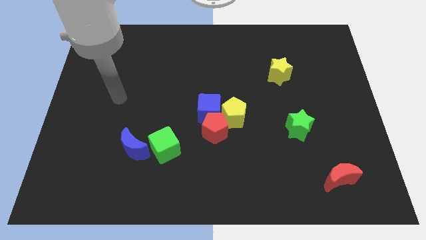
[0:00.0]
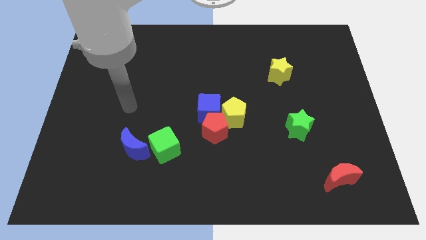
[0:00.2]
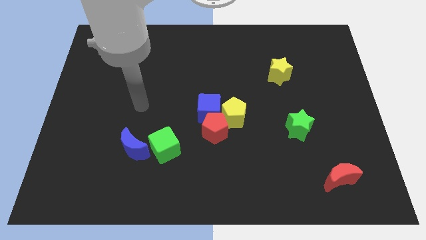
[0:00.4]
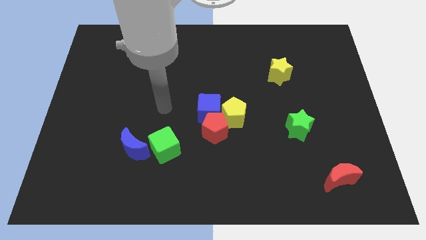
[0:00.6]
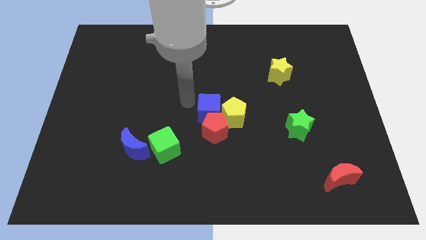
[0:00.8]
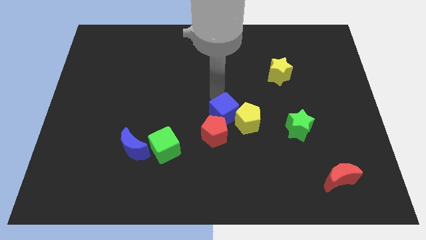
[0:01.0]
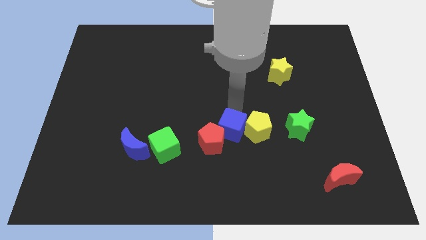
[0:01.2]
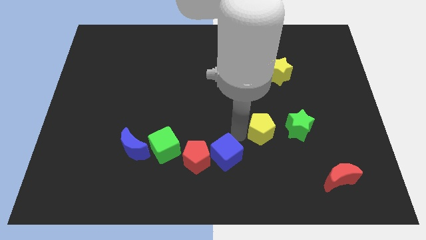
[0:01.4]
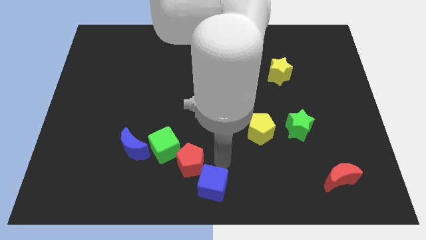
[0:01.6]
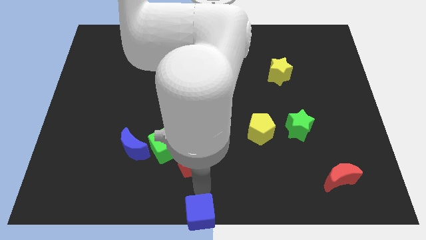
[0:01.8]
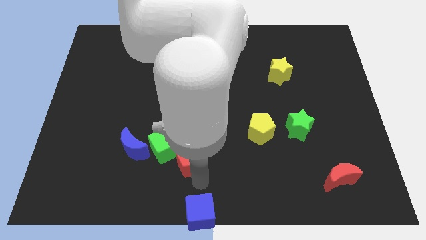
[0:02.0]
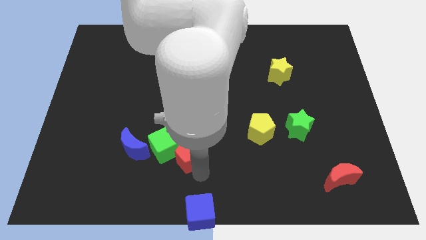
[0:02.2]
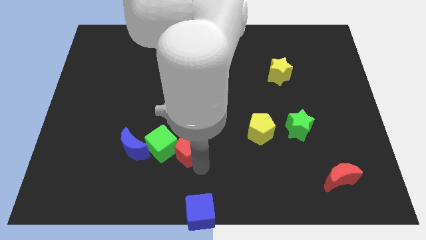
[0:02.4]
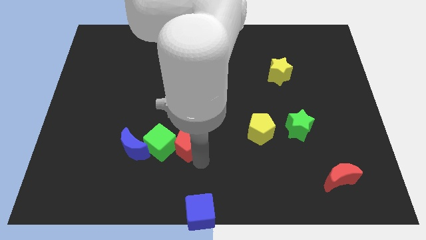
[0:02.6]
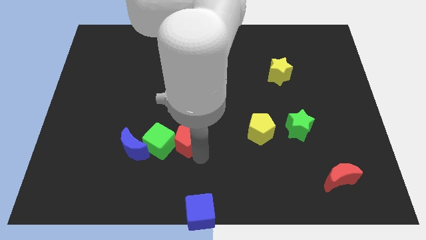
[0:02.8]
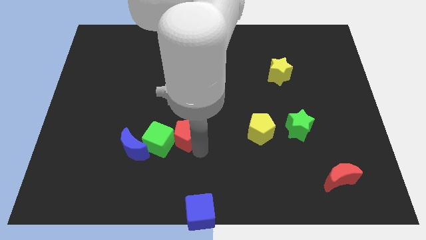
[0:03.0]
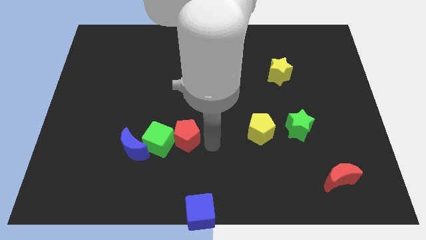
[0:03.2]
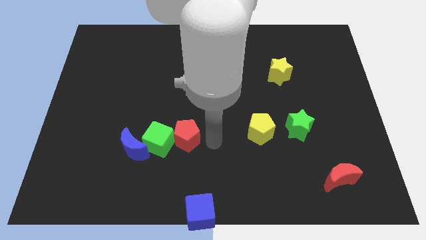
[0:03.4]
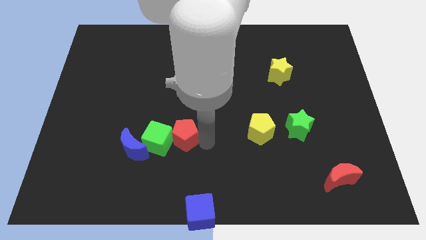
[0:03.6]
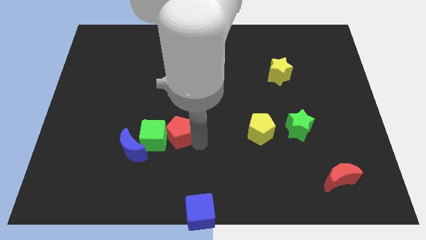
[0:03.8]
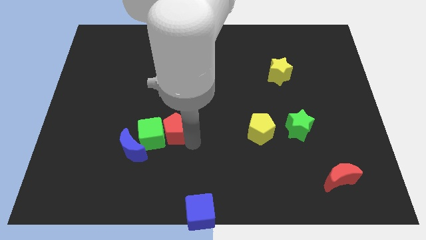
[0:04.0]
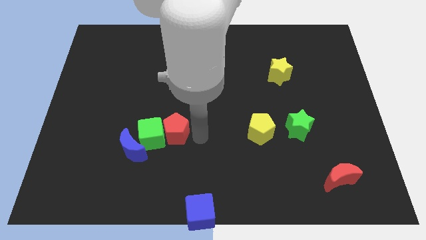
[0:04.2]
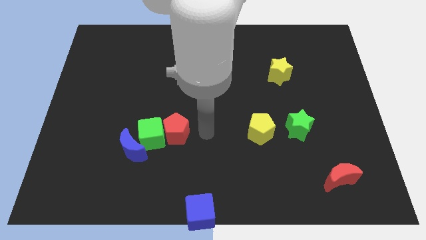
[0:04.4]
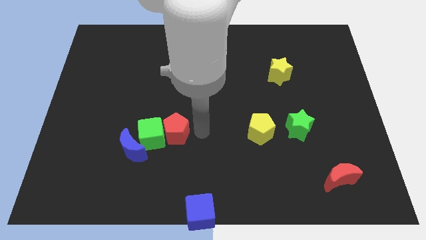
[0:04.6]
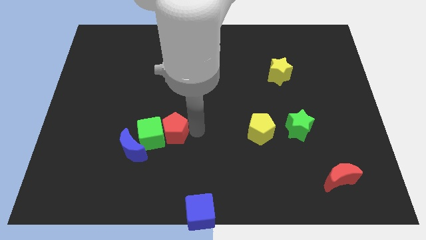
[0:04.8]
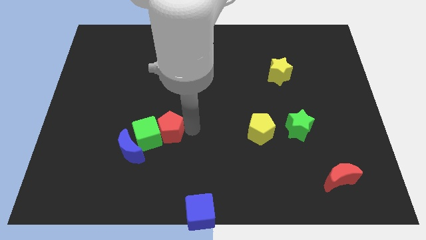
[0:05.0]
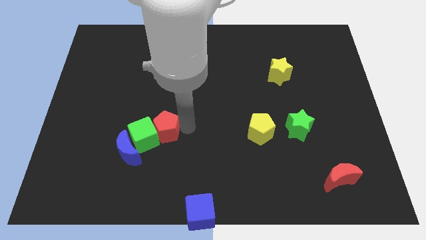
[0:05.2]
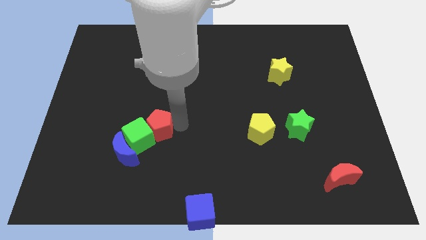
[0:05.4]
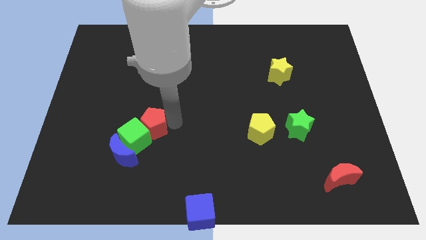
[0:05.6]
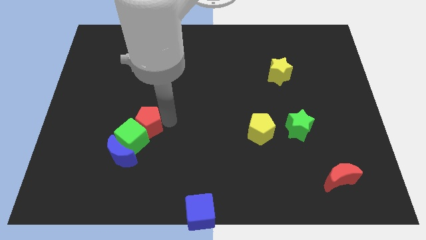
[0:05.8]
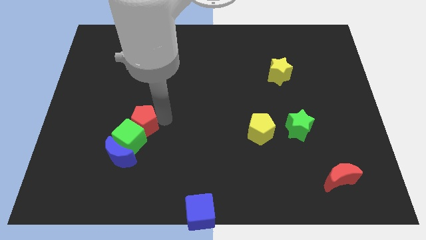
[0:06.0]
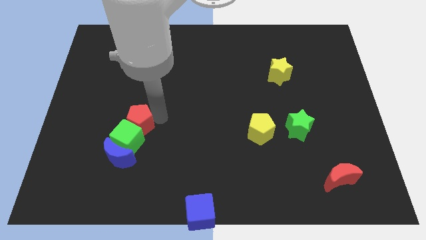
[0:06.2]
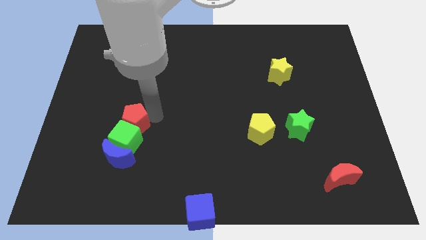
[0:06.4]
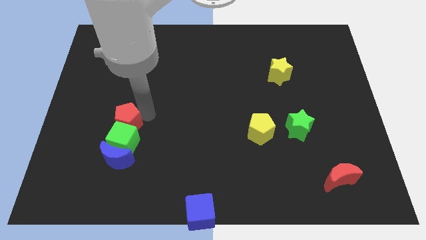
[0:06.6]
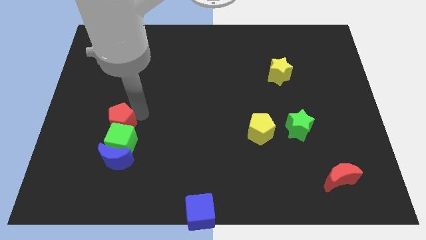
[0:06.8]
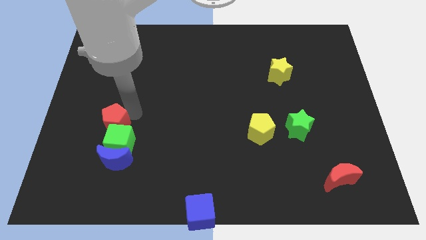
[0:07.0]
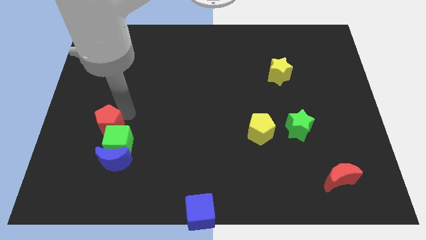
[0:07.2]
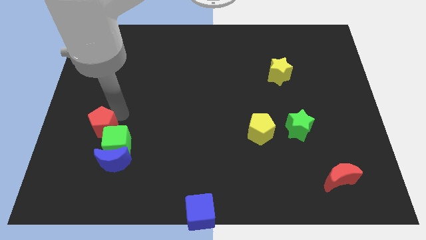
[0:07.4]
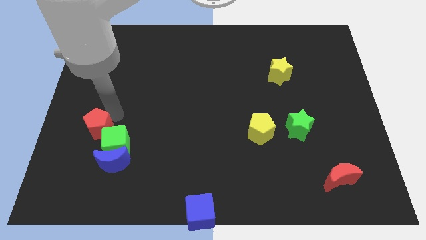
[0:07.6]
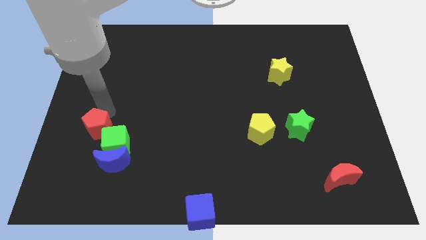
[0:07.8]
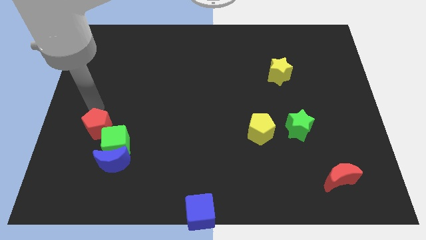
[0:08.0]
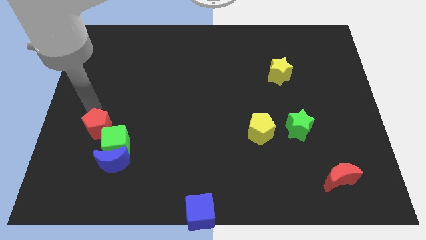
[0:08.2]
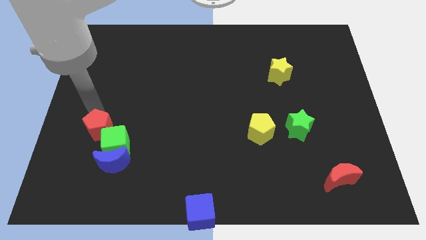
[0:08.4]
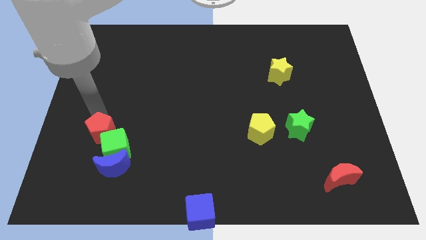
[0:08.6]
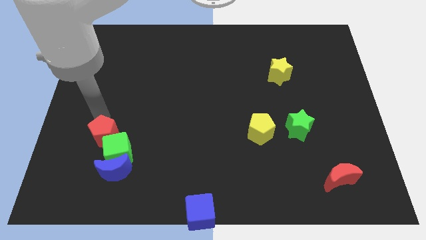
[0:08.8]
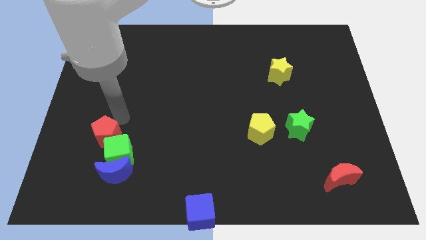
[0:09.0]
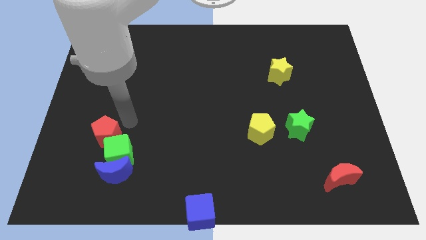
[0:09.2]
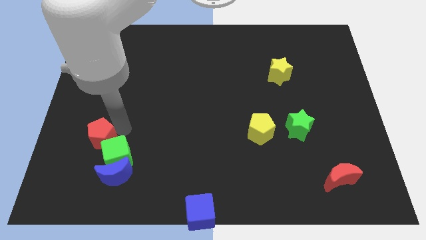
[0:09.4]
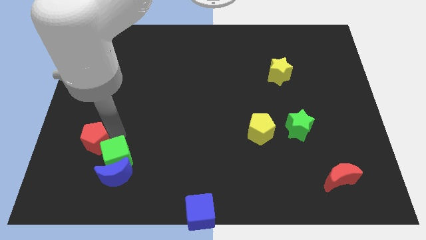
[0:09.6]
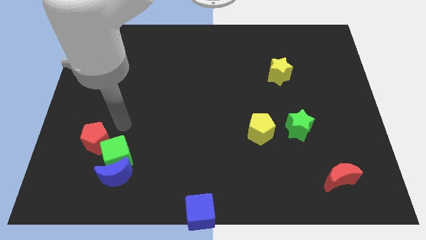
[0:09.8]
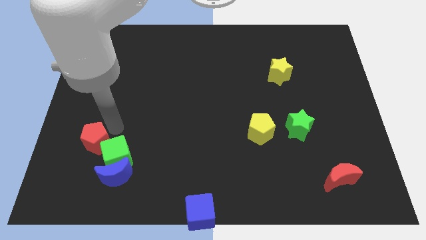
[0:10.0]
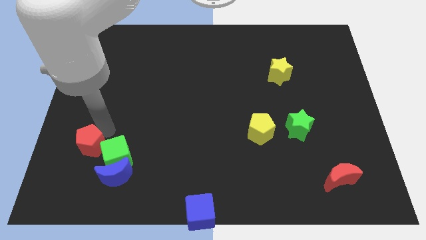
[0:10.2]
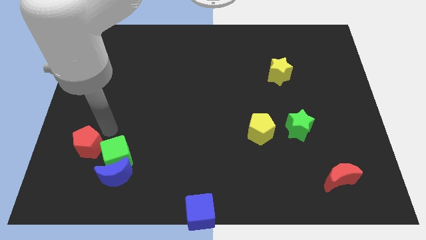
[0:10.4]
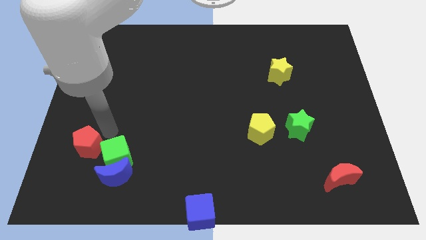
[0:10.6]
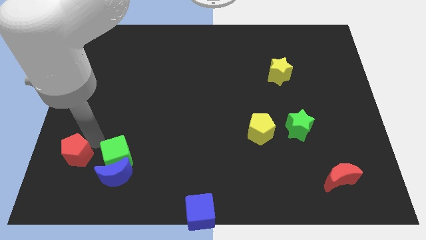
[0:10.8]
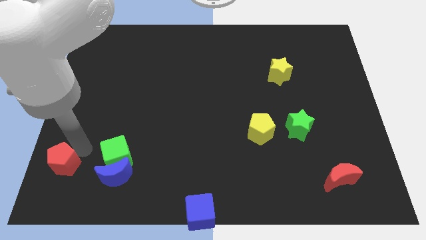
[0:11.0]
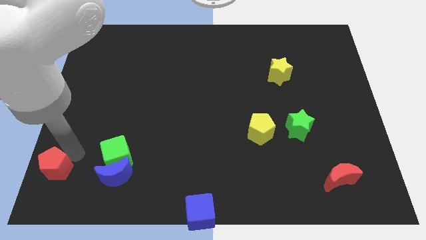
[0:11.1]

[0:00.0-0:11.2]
put the red pentagon to the bottom left

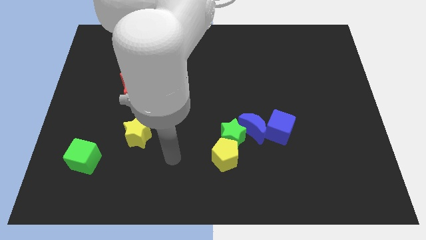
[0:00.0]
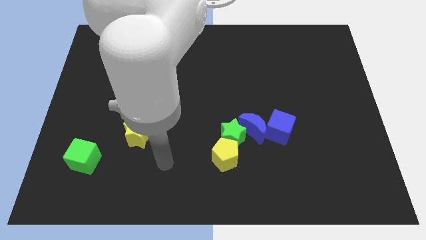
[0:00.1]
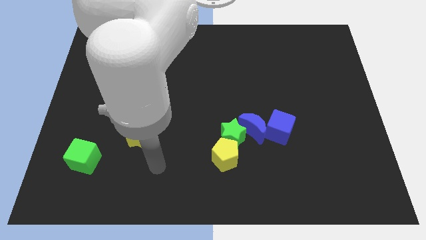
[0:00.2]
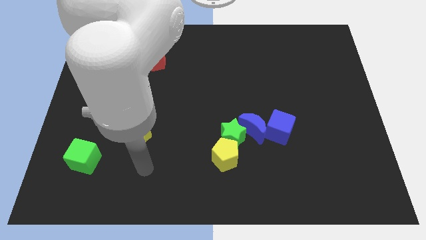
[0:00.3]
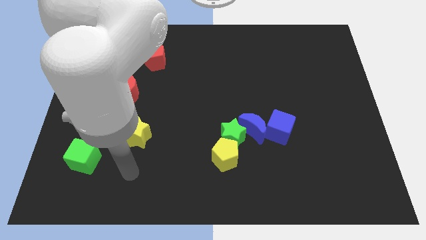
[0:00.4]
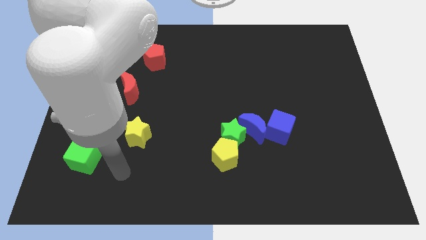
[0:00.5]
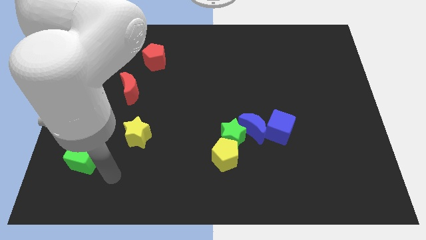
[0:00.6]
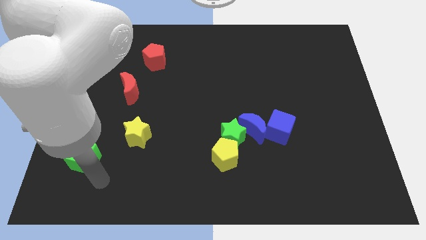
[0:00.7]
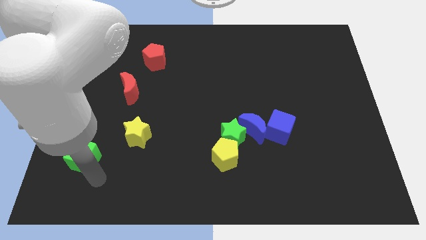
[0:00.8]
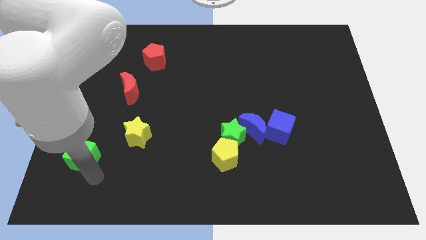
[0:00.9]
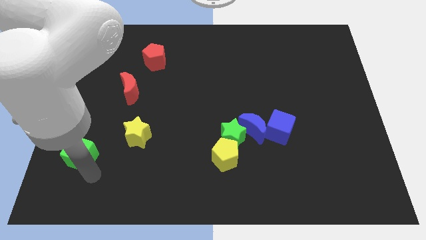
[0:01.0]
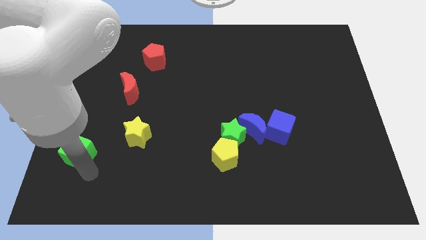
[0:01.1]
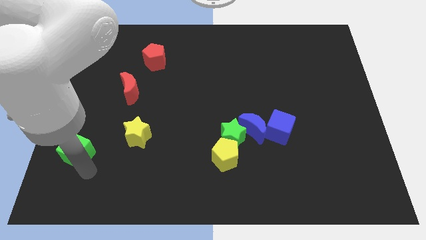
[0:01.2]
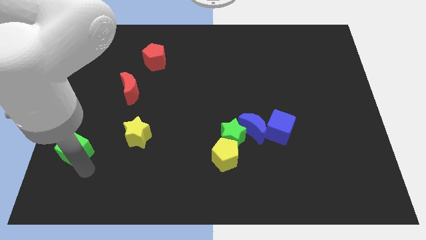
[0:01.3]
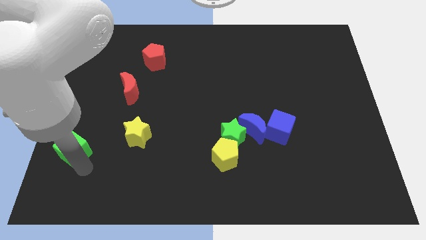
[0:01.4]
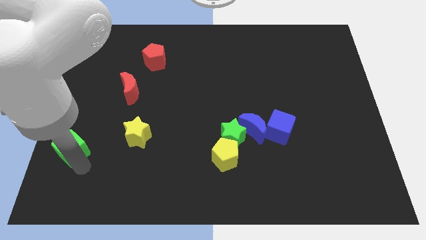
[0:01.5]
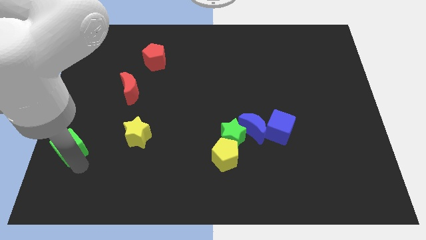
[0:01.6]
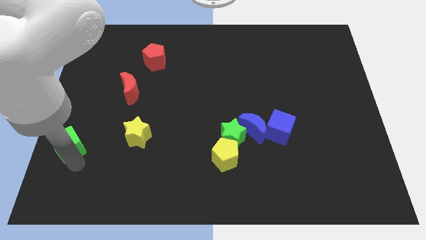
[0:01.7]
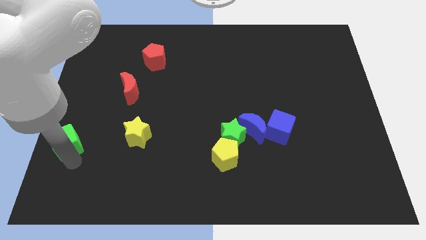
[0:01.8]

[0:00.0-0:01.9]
slide the green cube to the left side of the board
